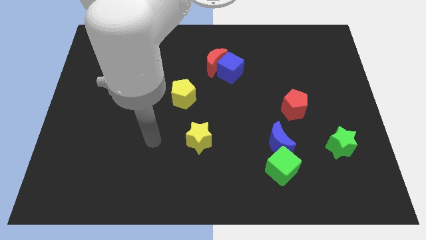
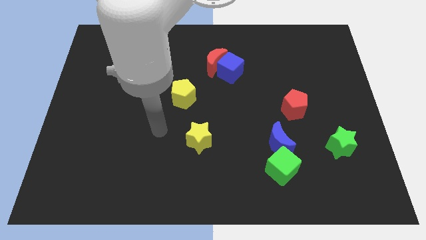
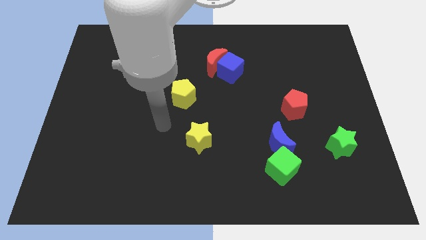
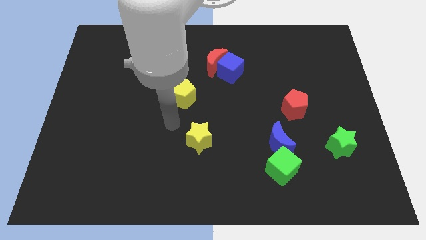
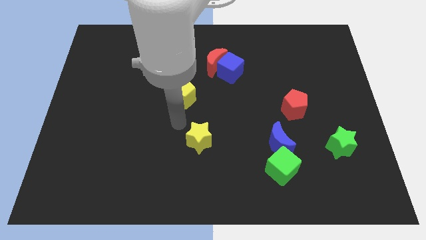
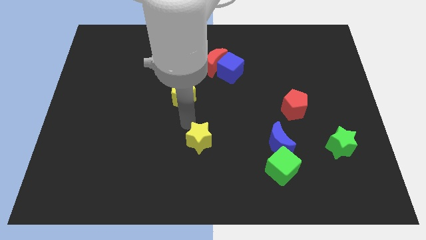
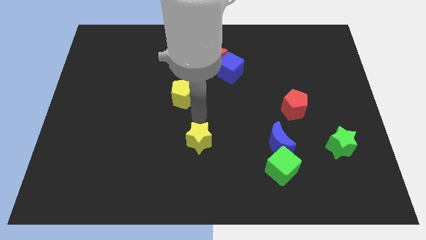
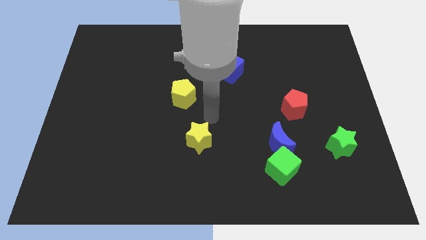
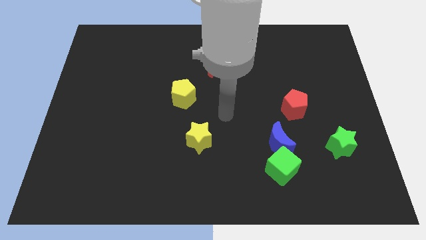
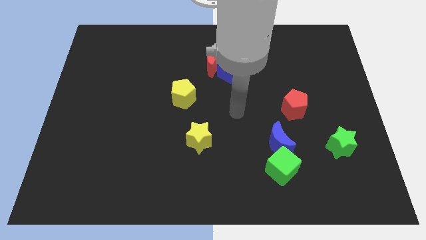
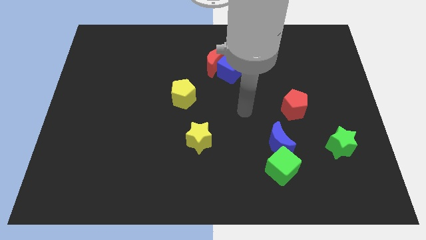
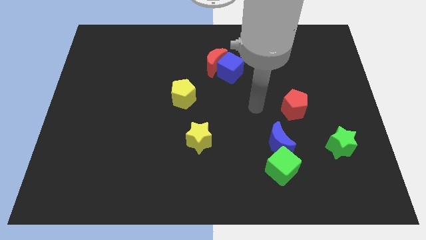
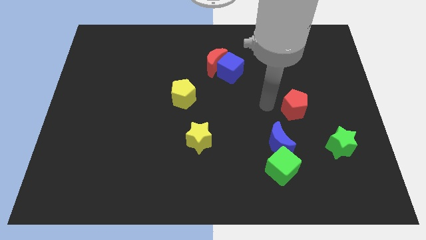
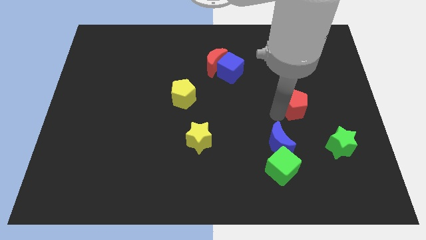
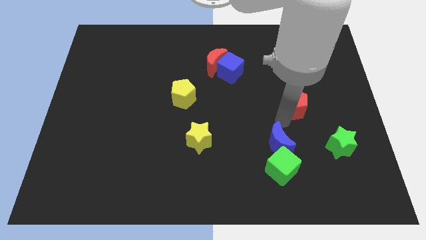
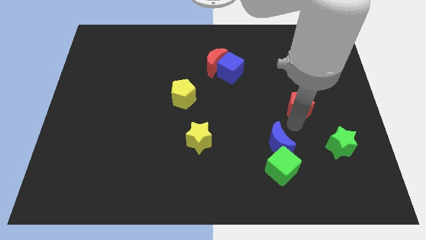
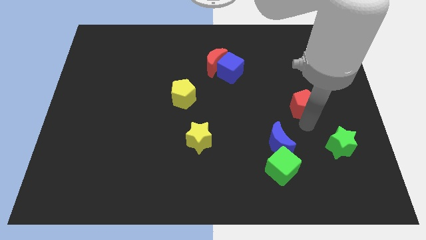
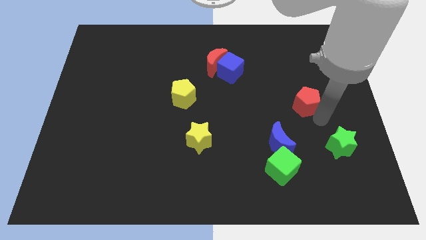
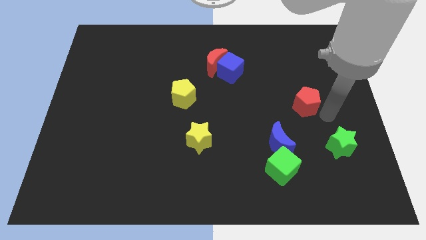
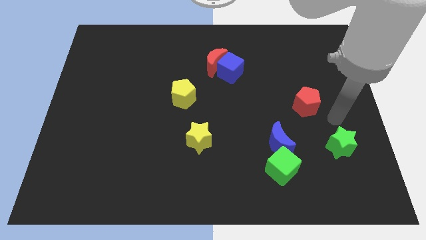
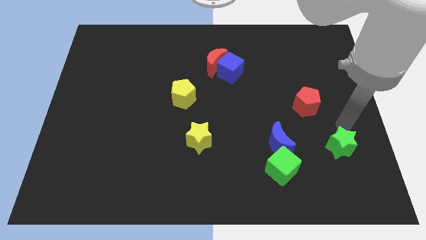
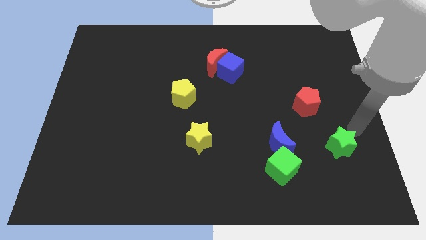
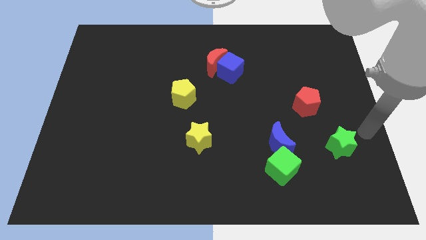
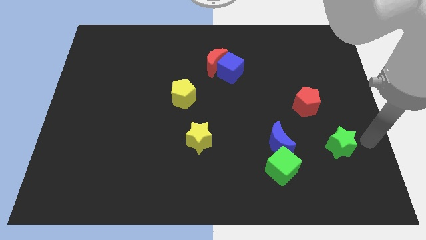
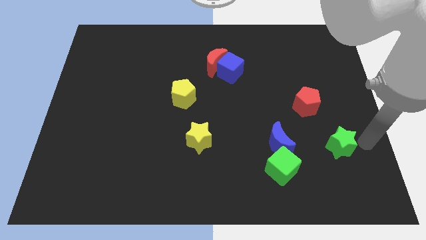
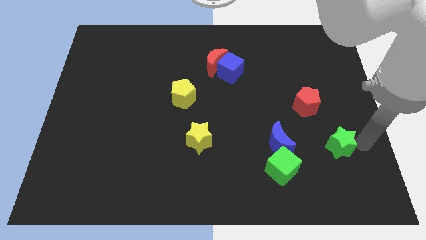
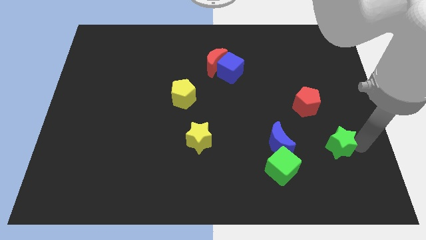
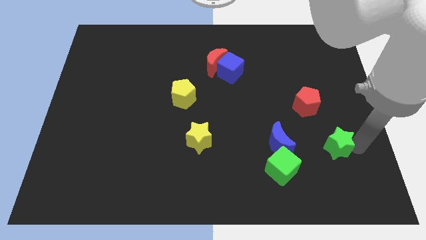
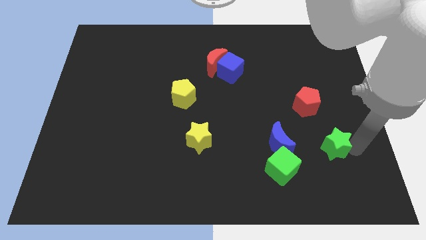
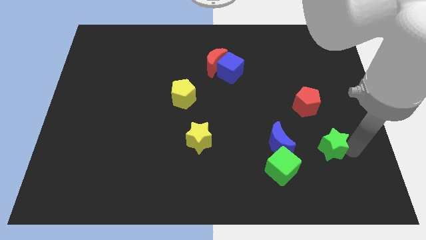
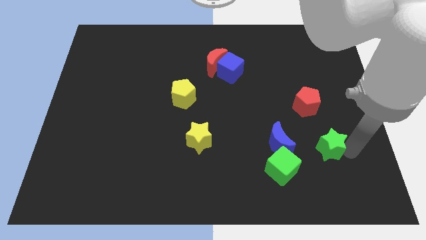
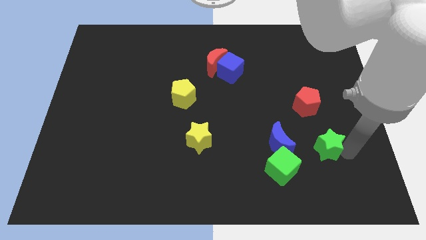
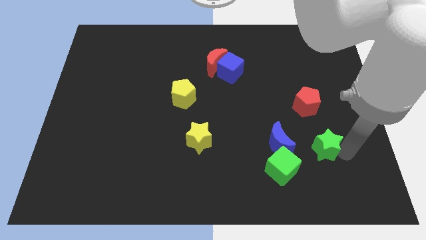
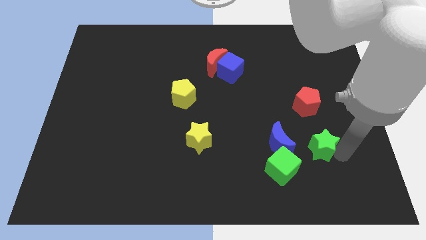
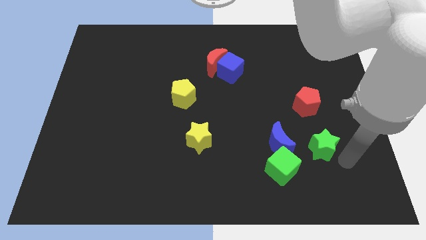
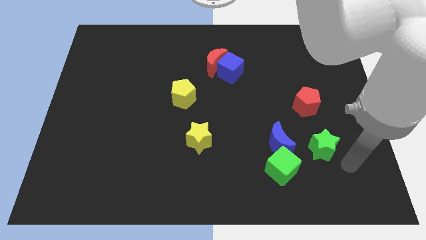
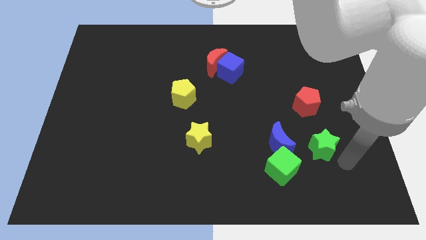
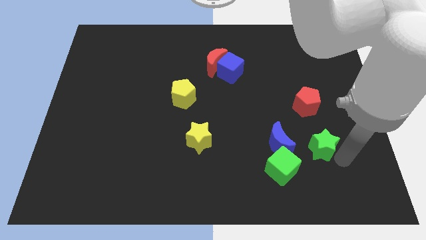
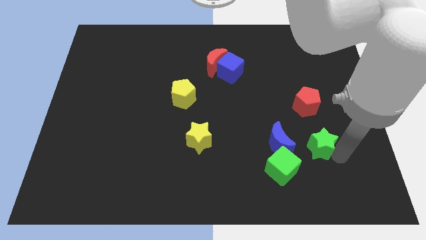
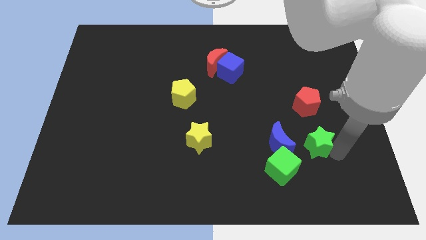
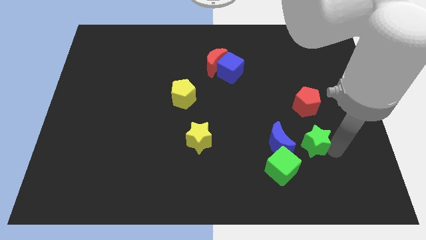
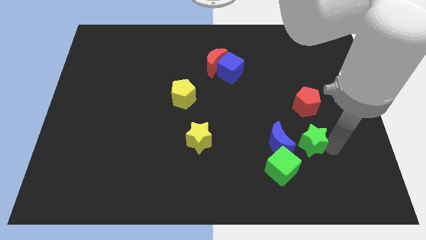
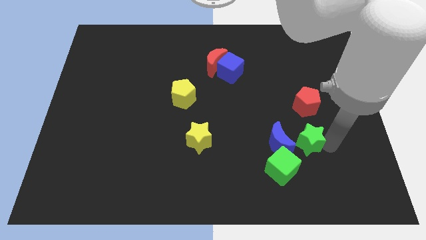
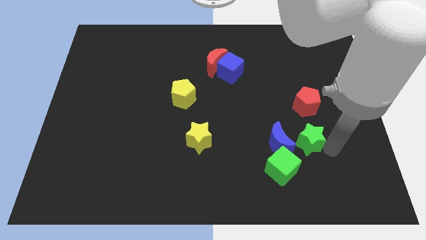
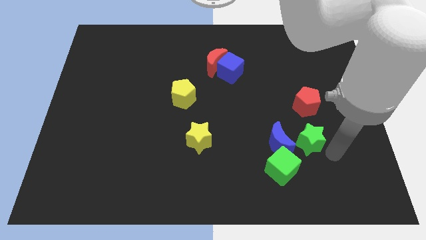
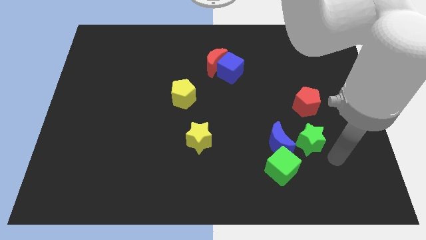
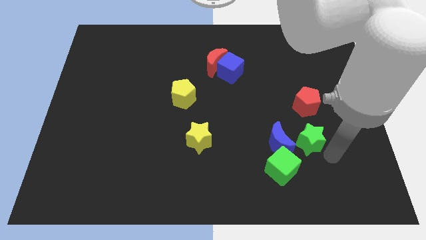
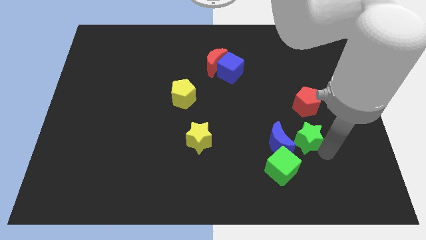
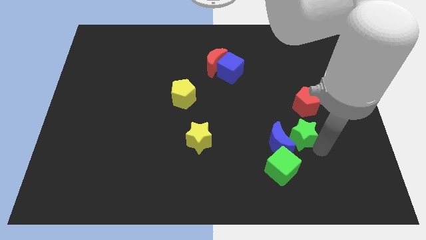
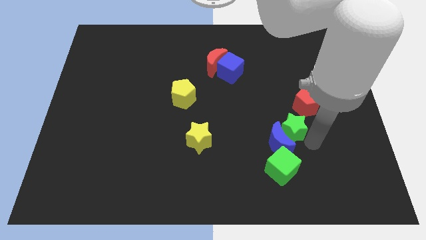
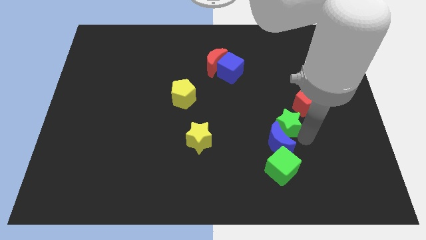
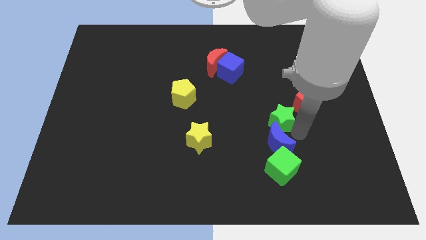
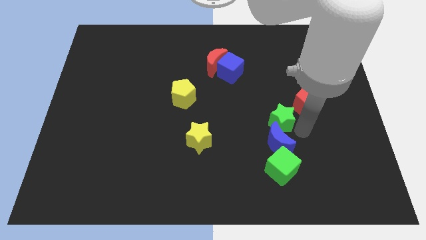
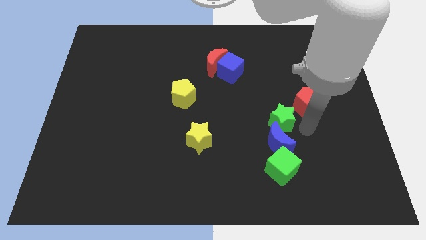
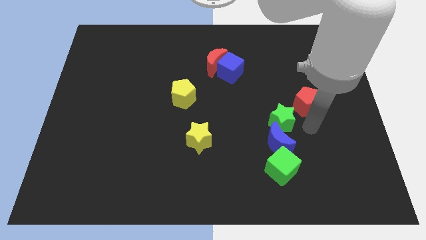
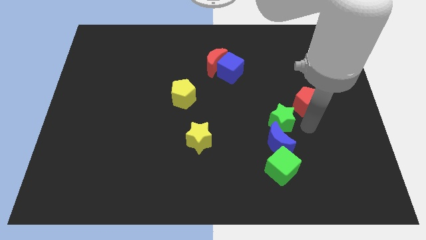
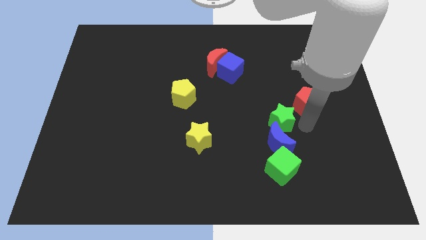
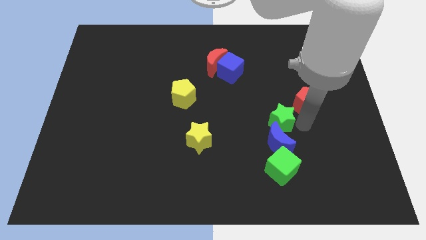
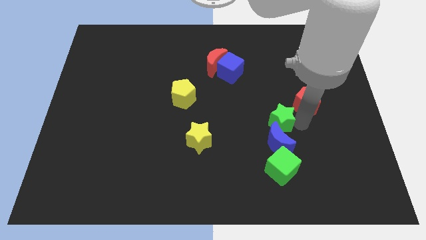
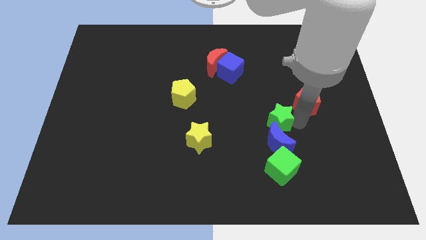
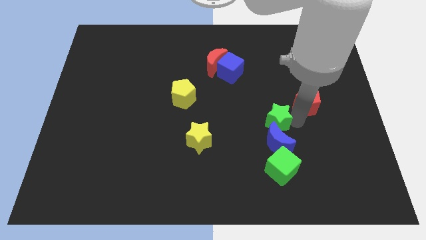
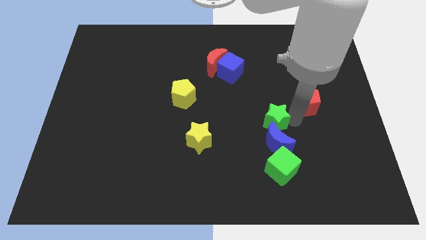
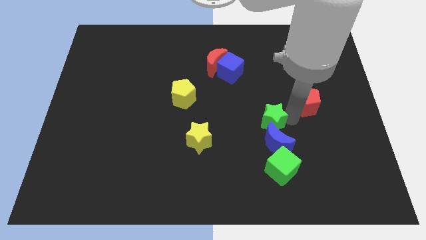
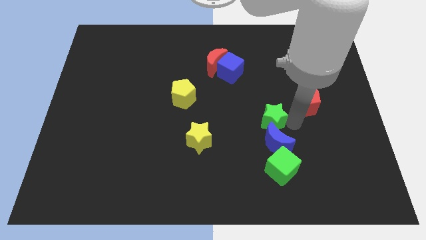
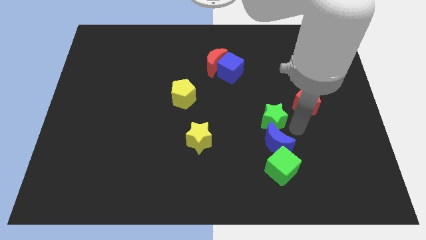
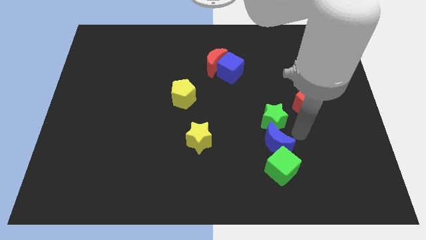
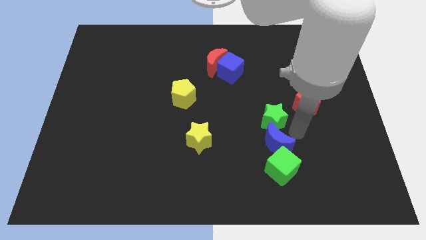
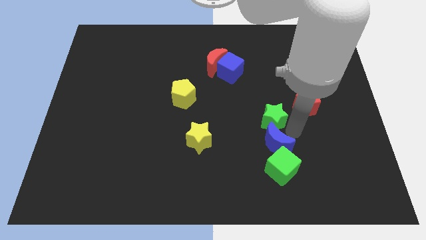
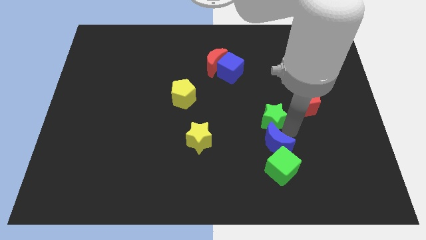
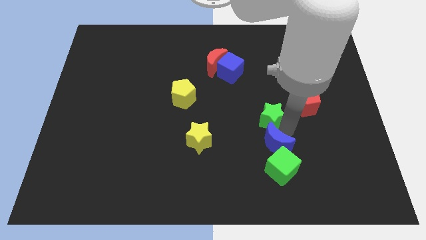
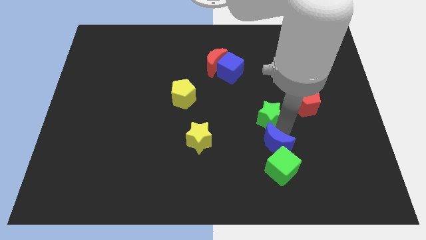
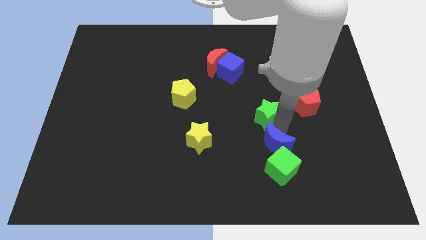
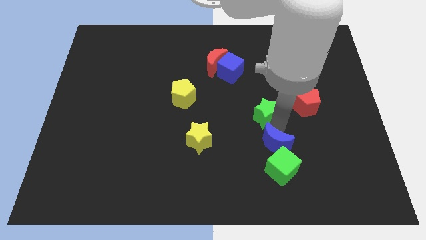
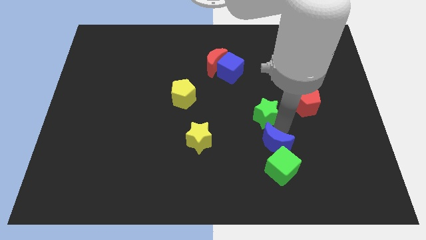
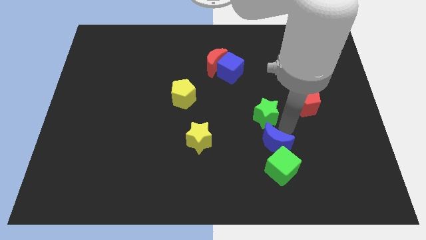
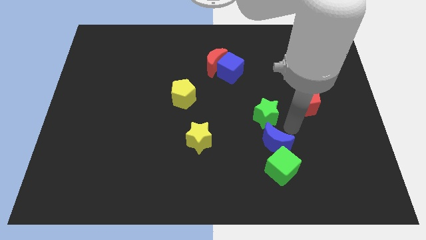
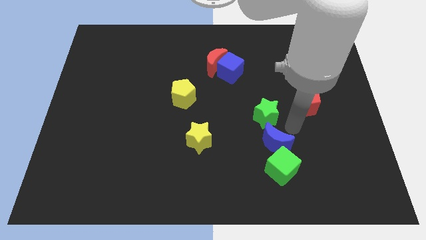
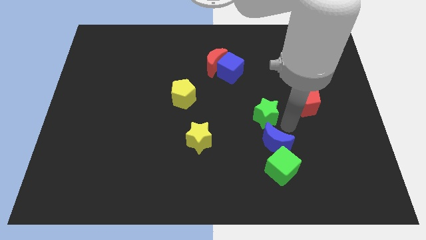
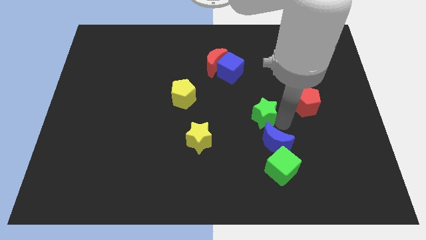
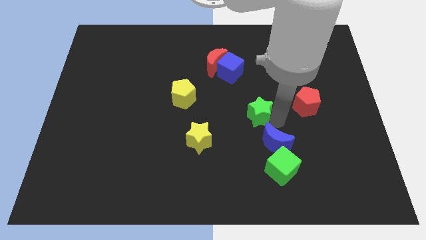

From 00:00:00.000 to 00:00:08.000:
move the green star to the middle
